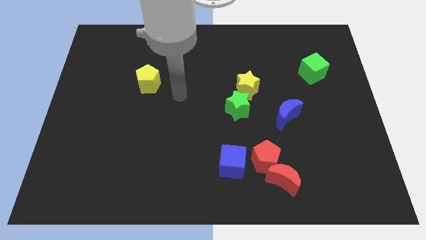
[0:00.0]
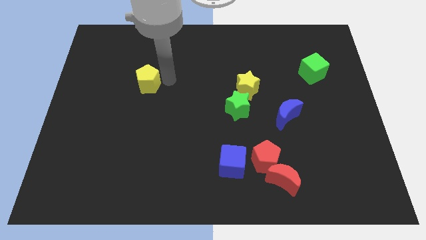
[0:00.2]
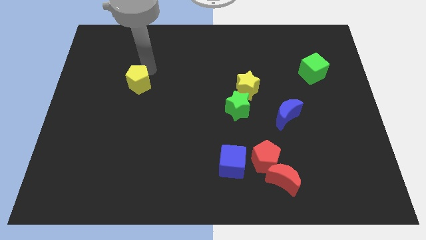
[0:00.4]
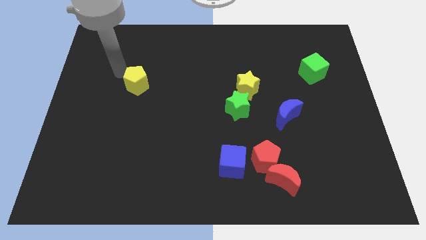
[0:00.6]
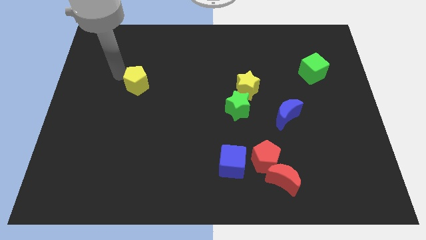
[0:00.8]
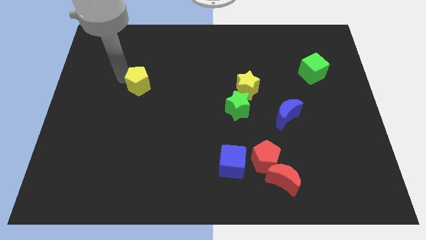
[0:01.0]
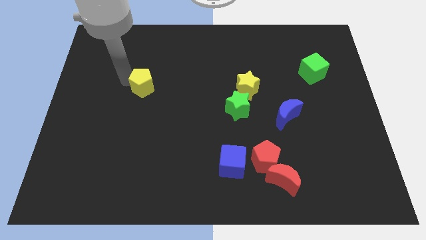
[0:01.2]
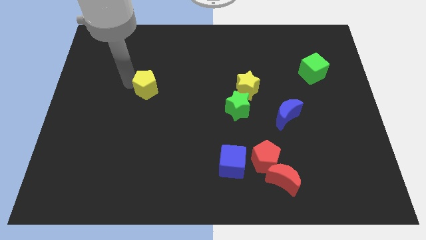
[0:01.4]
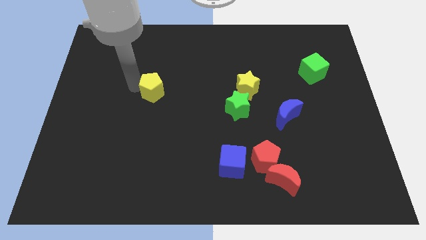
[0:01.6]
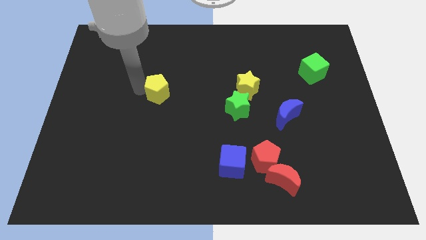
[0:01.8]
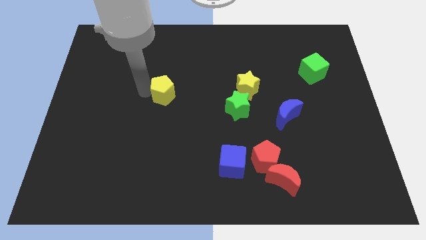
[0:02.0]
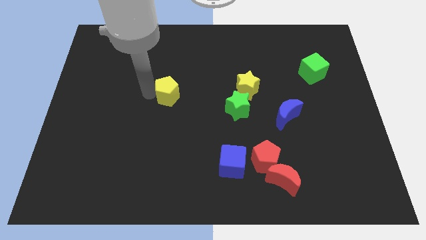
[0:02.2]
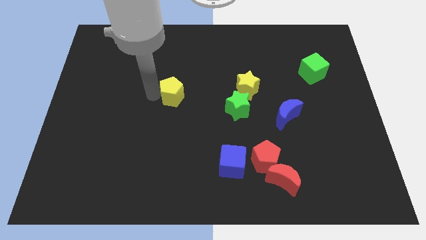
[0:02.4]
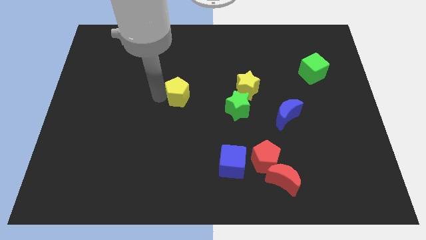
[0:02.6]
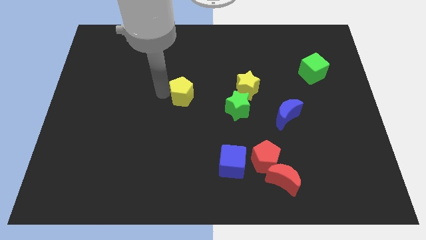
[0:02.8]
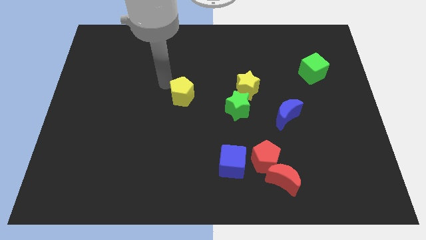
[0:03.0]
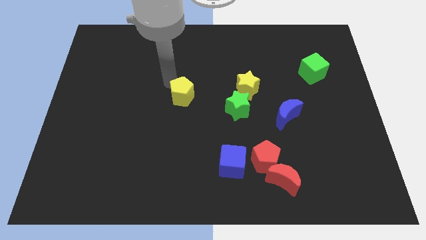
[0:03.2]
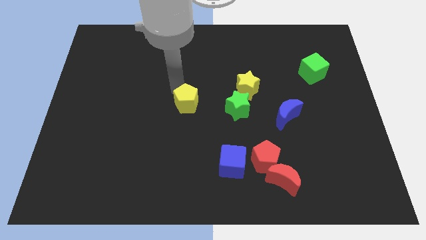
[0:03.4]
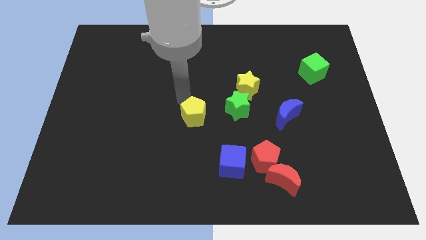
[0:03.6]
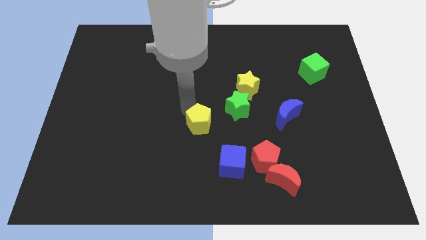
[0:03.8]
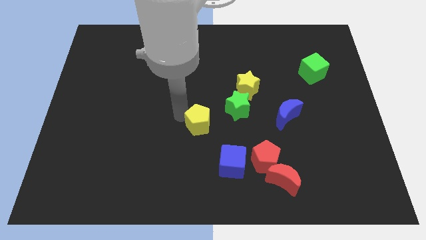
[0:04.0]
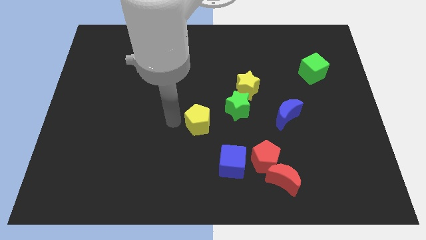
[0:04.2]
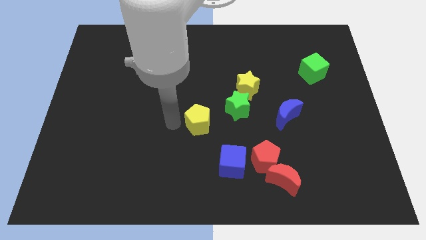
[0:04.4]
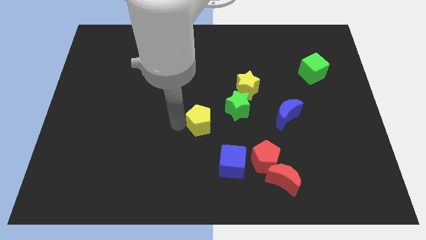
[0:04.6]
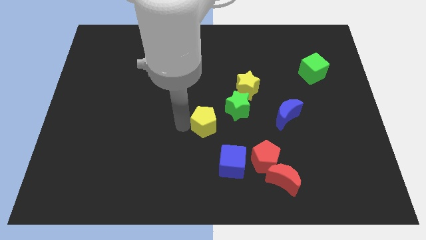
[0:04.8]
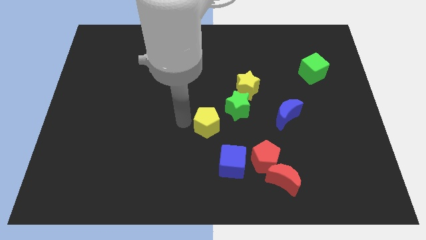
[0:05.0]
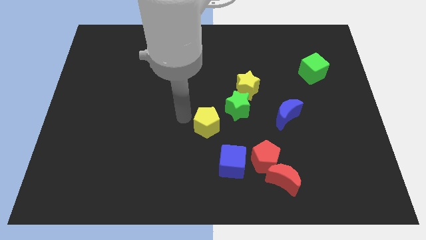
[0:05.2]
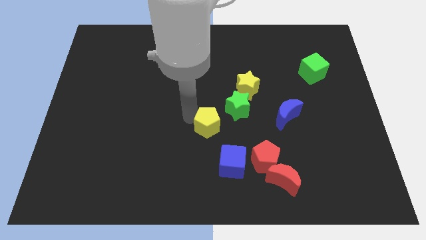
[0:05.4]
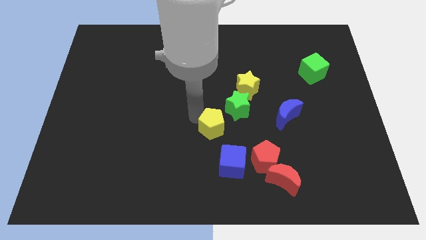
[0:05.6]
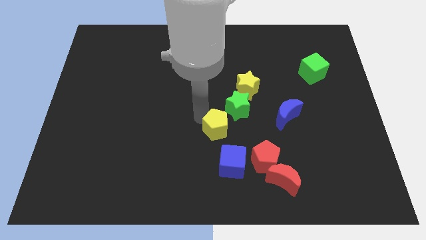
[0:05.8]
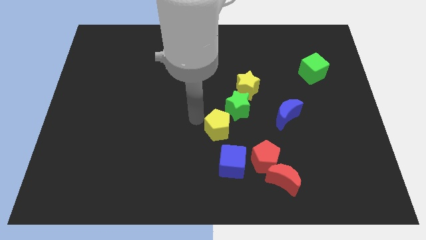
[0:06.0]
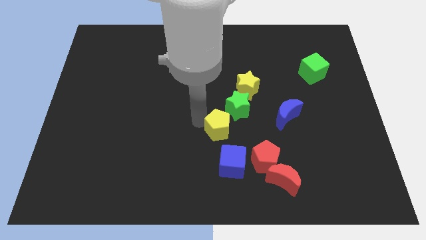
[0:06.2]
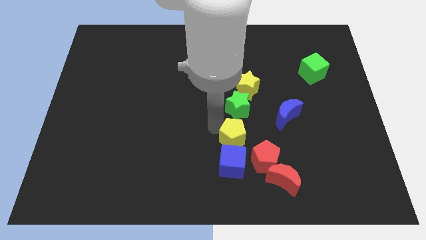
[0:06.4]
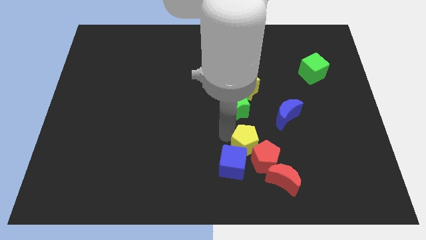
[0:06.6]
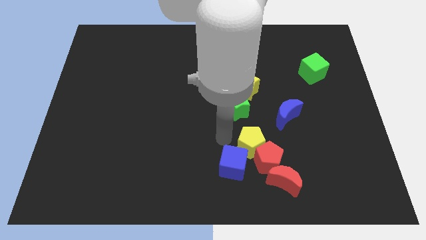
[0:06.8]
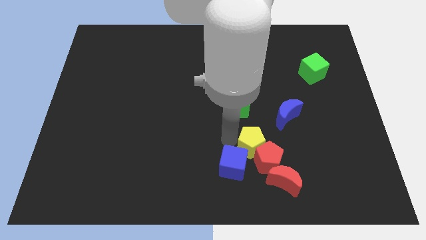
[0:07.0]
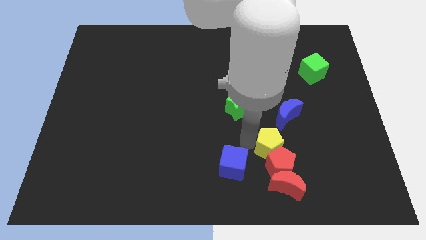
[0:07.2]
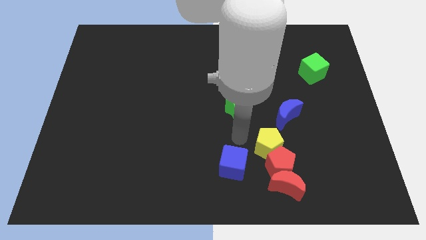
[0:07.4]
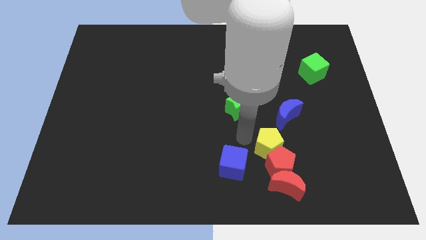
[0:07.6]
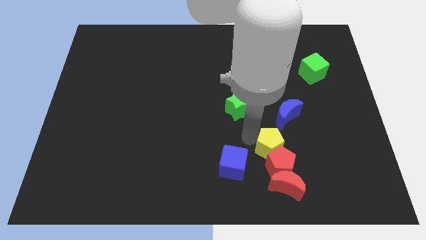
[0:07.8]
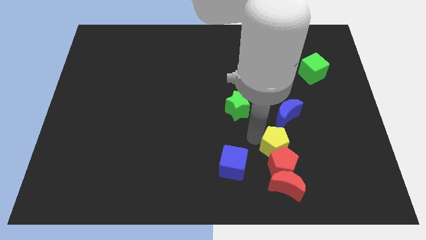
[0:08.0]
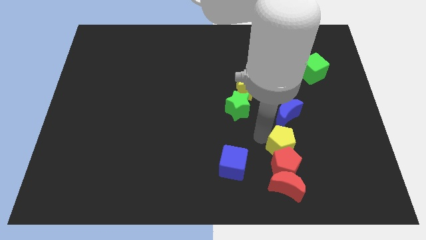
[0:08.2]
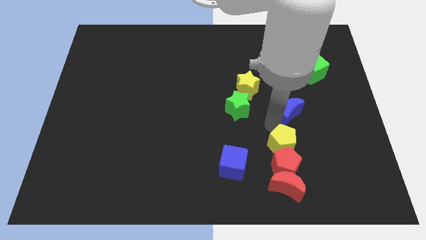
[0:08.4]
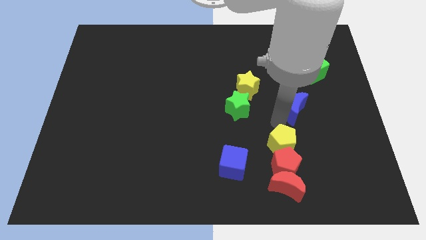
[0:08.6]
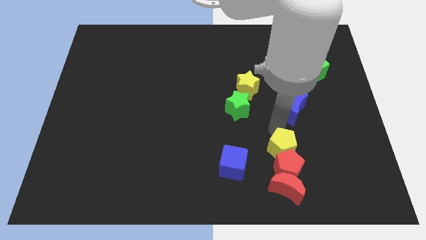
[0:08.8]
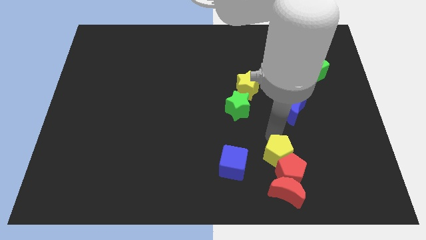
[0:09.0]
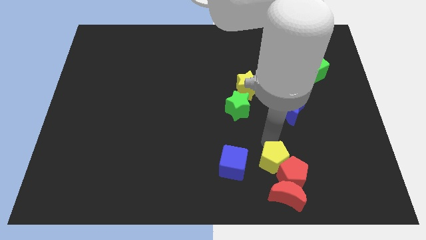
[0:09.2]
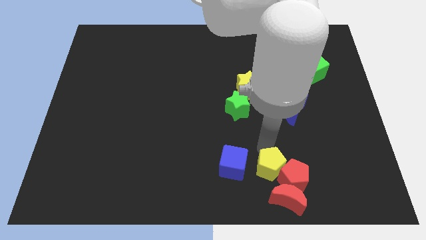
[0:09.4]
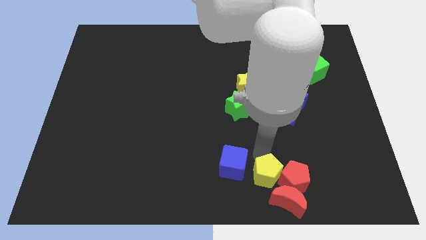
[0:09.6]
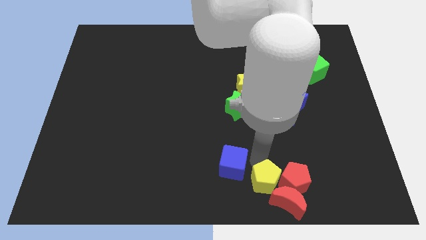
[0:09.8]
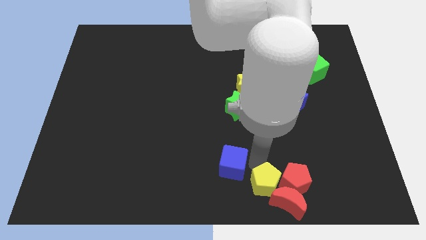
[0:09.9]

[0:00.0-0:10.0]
slide the yellow pentagon next to the red moon

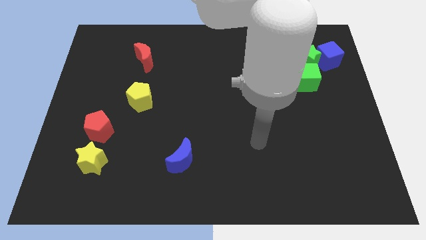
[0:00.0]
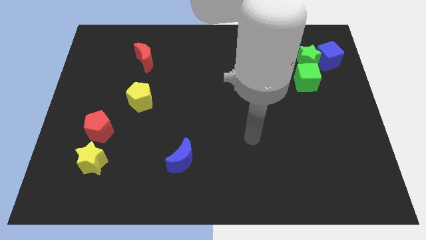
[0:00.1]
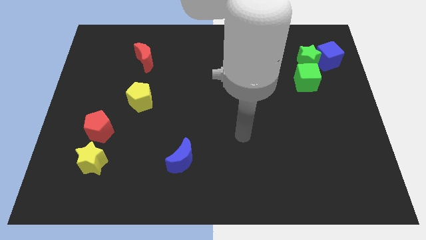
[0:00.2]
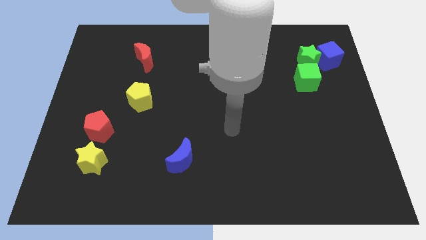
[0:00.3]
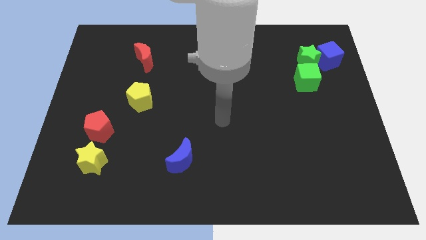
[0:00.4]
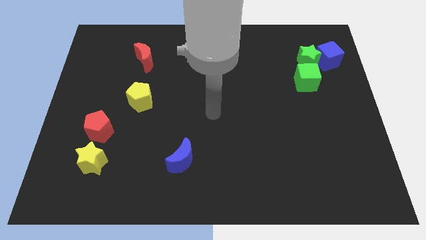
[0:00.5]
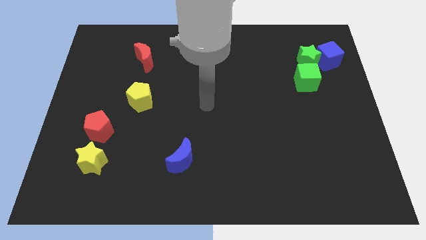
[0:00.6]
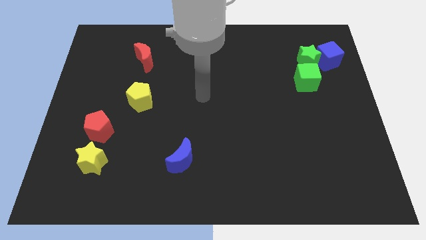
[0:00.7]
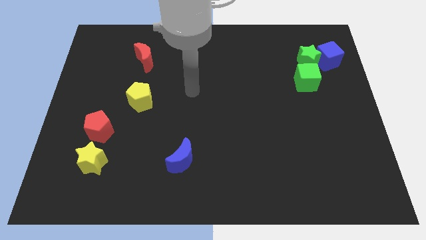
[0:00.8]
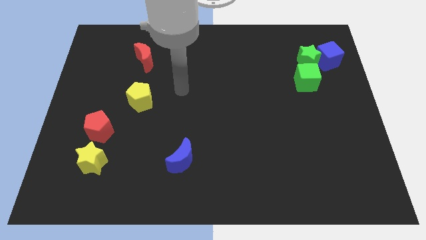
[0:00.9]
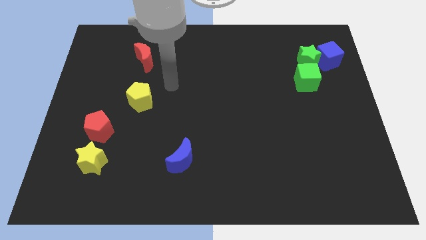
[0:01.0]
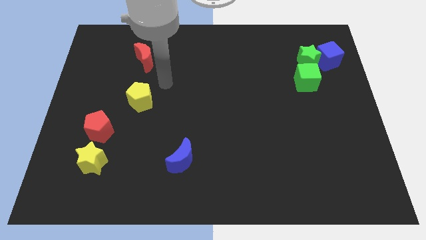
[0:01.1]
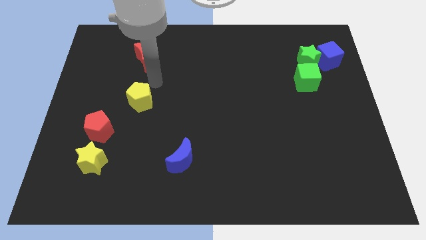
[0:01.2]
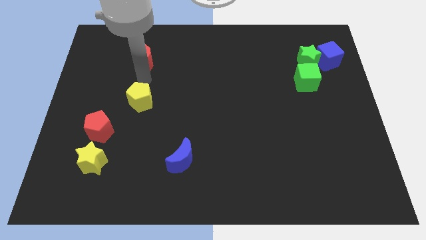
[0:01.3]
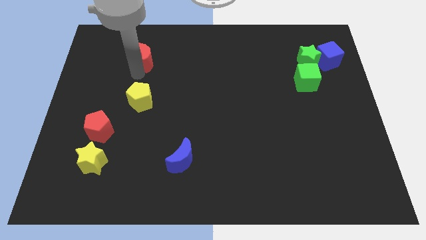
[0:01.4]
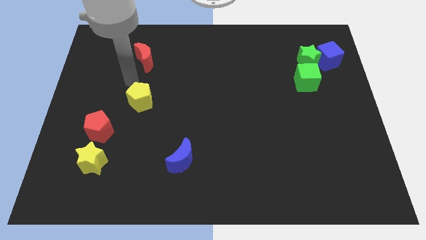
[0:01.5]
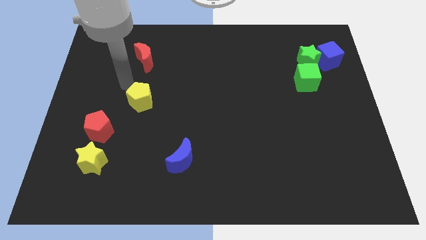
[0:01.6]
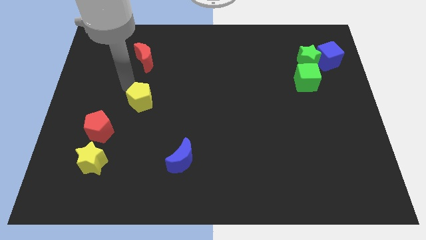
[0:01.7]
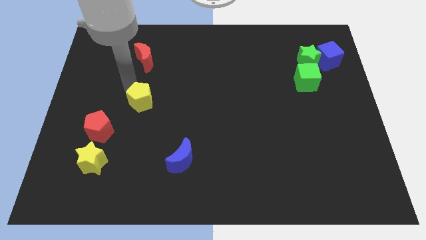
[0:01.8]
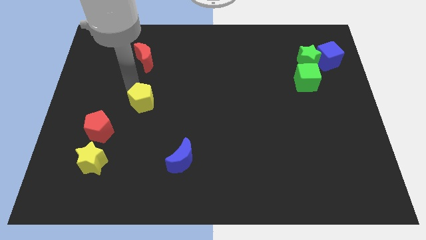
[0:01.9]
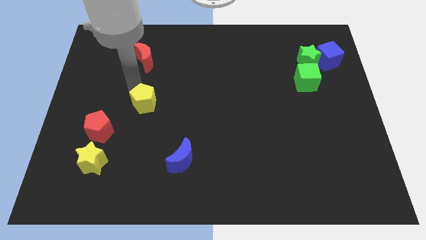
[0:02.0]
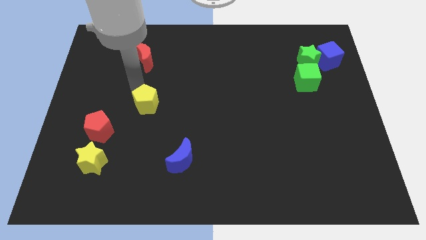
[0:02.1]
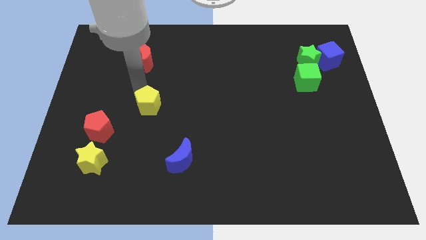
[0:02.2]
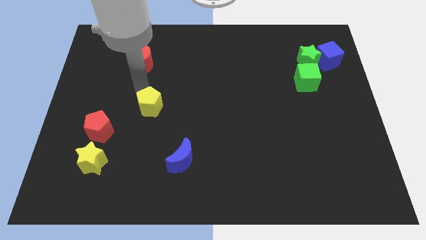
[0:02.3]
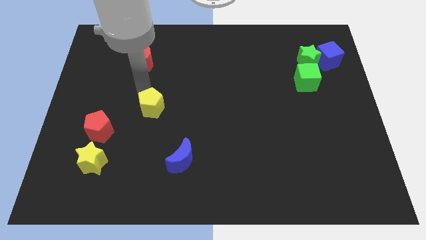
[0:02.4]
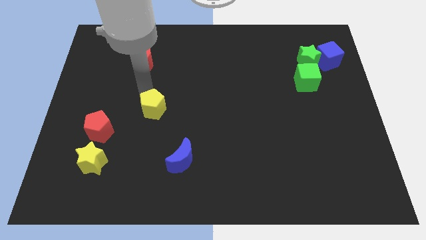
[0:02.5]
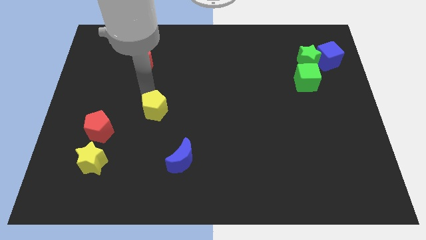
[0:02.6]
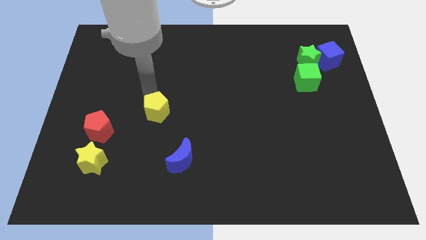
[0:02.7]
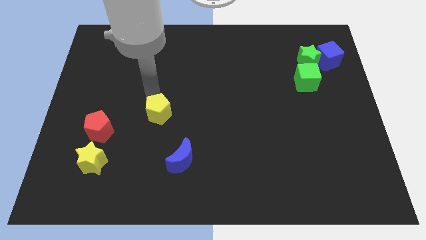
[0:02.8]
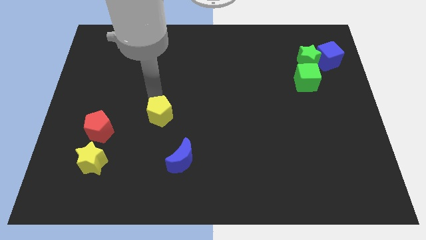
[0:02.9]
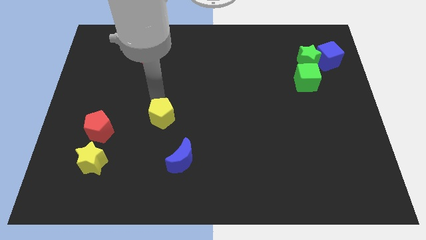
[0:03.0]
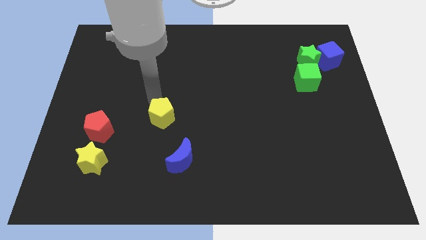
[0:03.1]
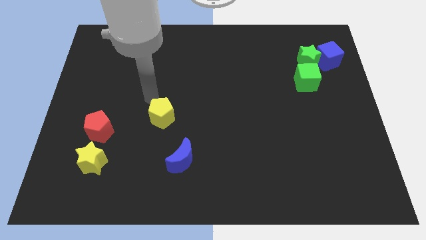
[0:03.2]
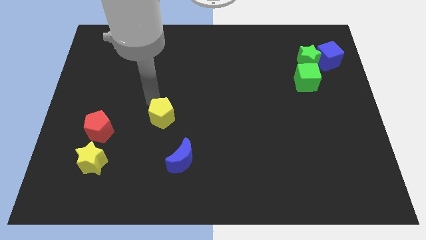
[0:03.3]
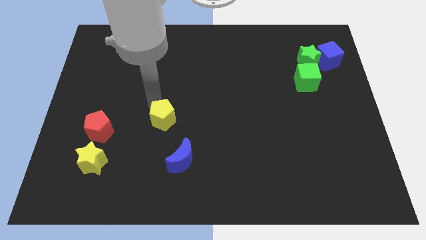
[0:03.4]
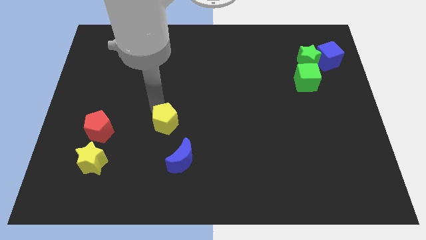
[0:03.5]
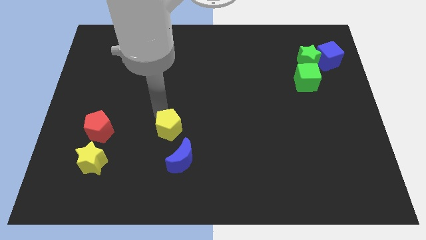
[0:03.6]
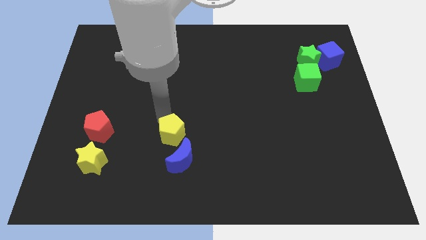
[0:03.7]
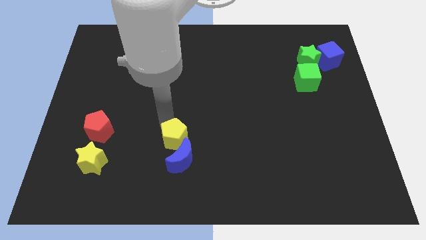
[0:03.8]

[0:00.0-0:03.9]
push the yellow pentagon close to the blue moon
